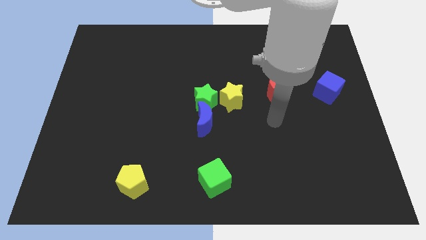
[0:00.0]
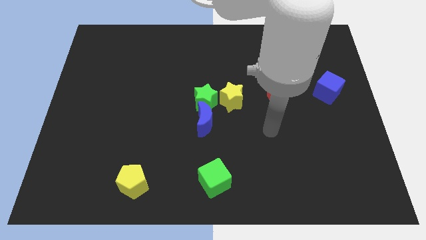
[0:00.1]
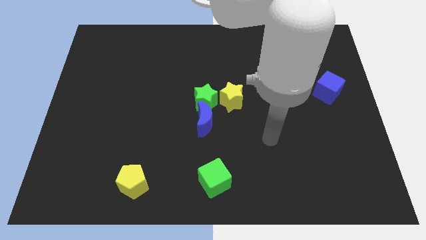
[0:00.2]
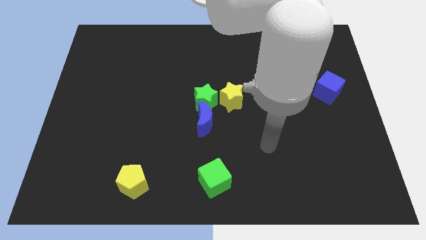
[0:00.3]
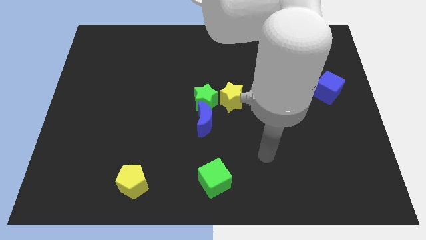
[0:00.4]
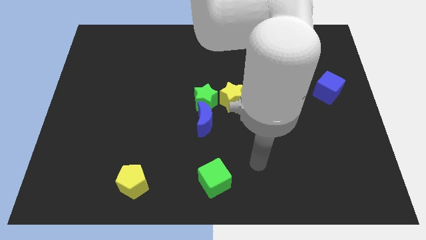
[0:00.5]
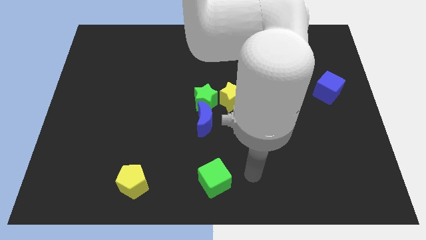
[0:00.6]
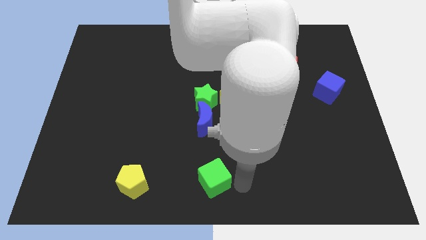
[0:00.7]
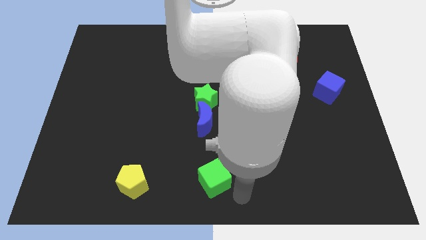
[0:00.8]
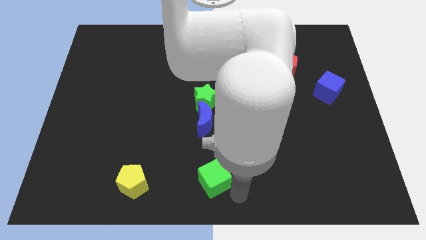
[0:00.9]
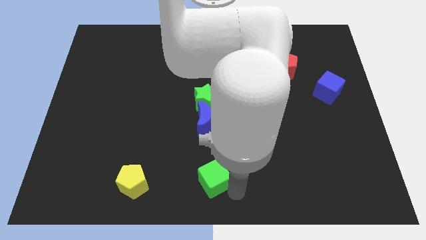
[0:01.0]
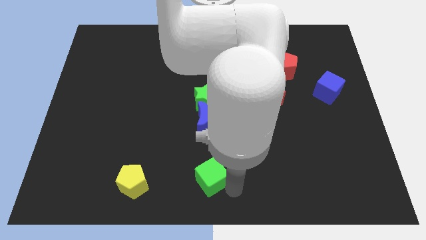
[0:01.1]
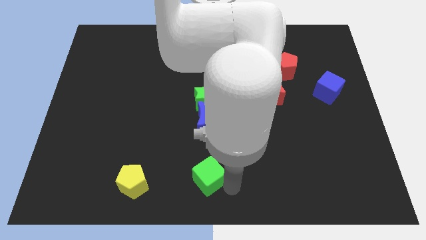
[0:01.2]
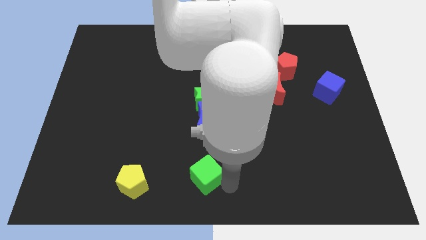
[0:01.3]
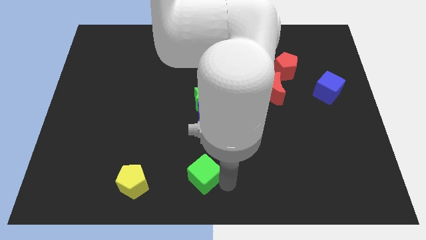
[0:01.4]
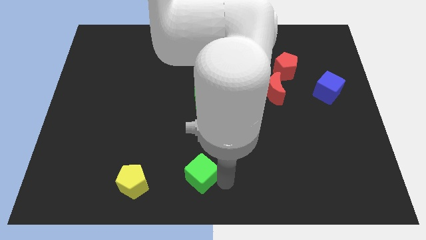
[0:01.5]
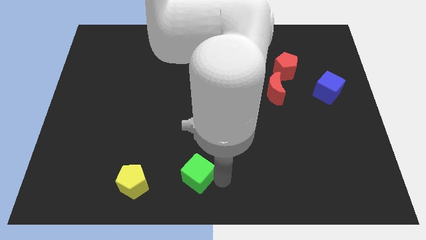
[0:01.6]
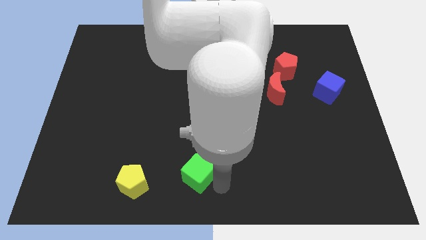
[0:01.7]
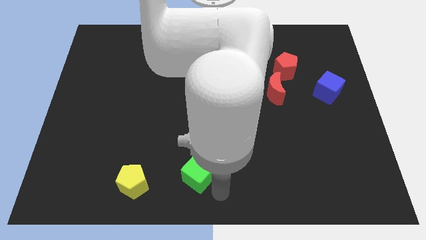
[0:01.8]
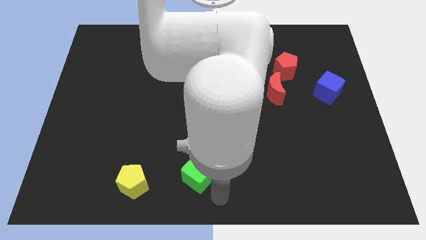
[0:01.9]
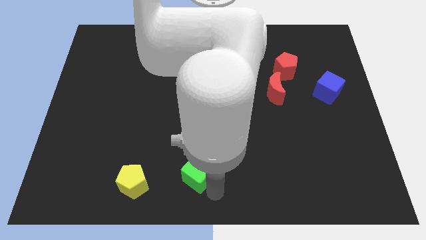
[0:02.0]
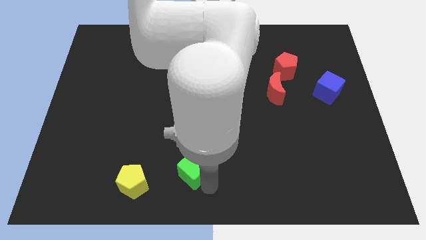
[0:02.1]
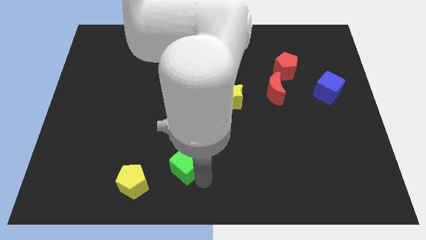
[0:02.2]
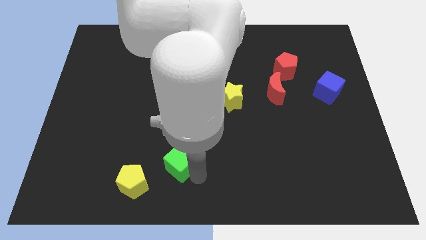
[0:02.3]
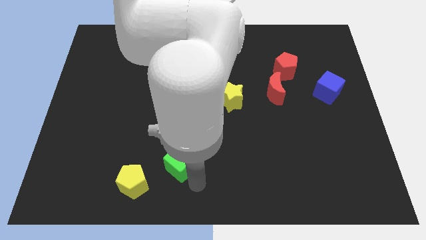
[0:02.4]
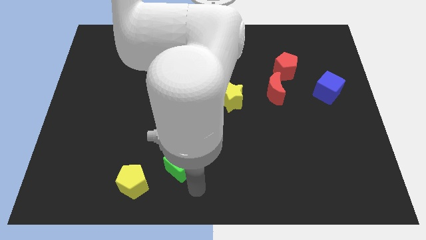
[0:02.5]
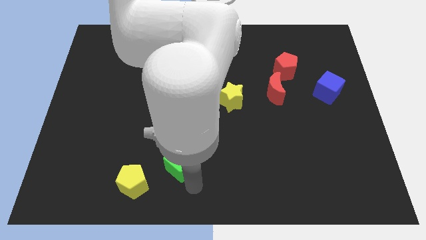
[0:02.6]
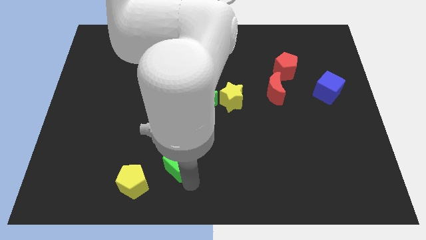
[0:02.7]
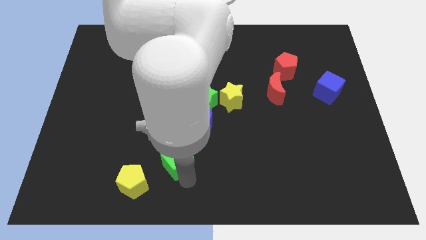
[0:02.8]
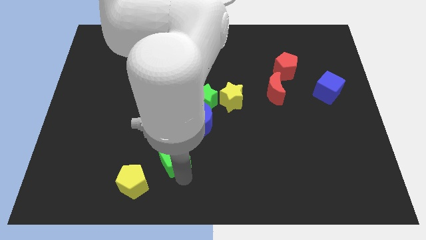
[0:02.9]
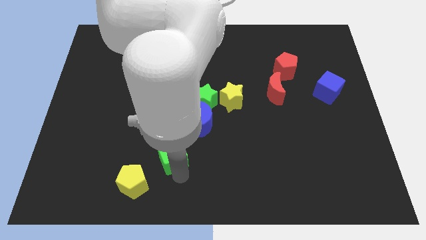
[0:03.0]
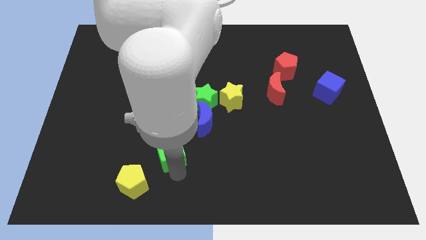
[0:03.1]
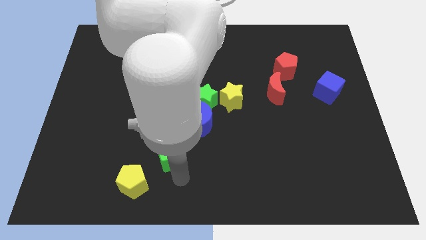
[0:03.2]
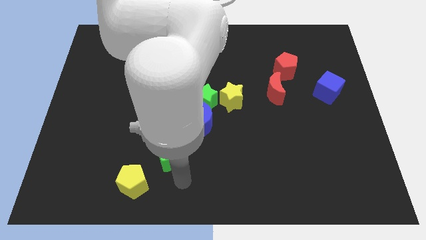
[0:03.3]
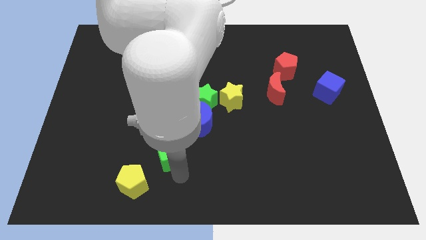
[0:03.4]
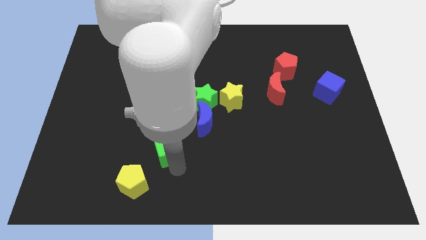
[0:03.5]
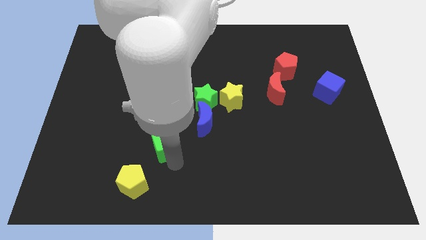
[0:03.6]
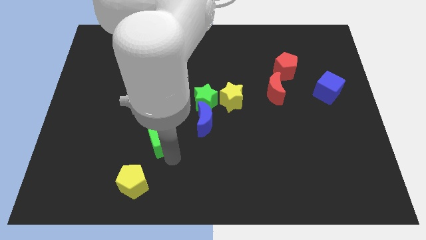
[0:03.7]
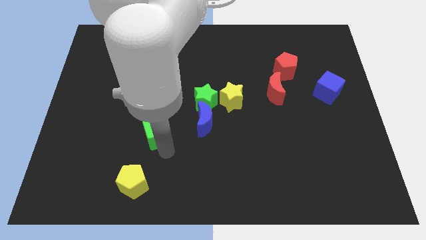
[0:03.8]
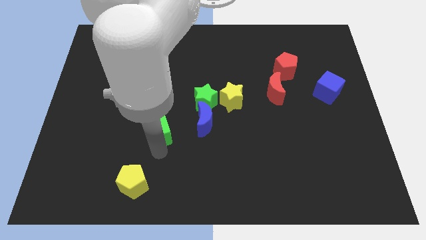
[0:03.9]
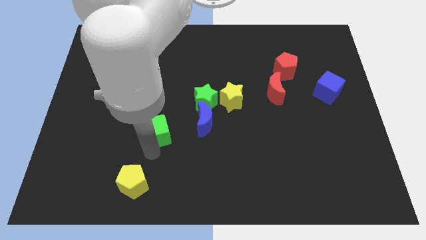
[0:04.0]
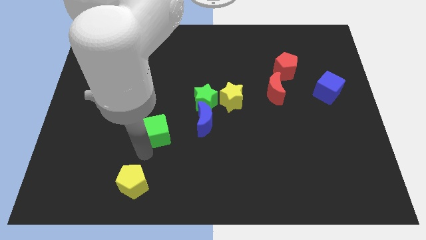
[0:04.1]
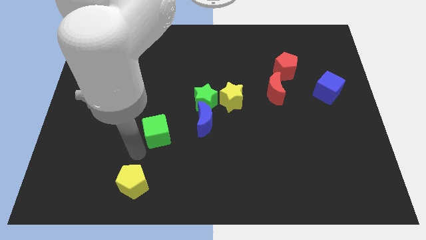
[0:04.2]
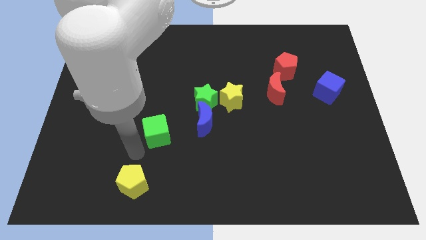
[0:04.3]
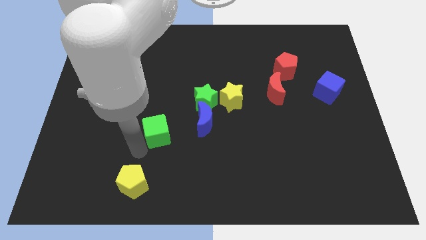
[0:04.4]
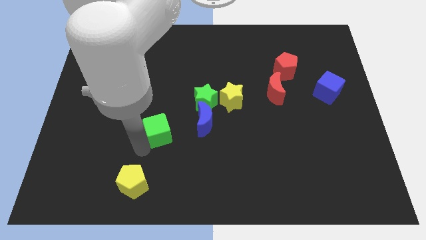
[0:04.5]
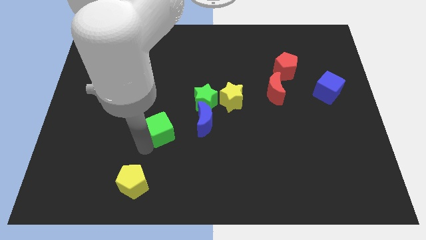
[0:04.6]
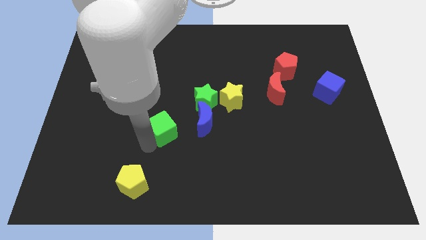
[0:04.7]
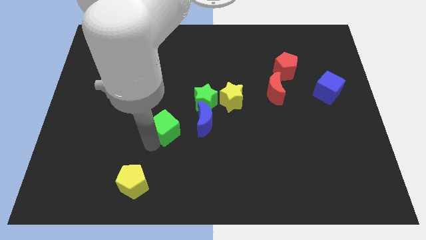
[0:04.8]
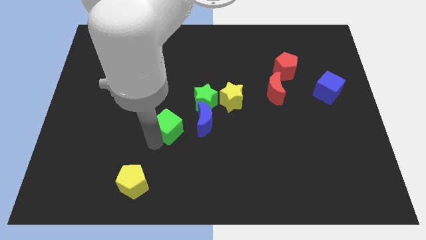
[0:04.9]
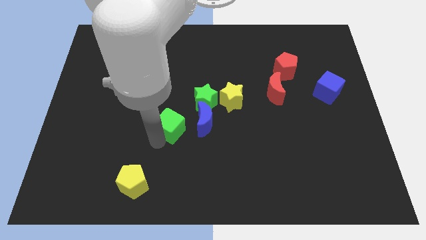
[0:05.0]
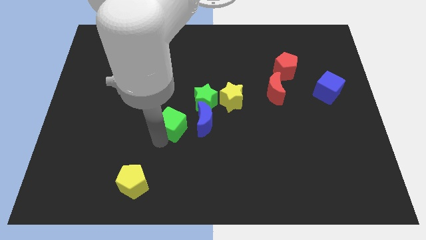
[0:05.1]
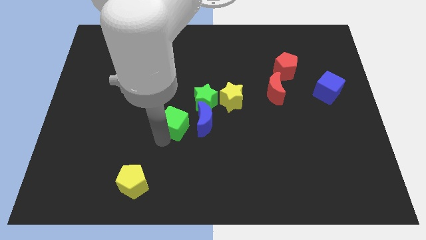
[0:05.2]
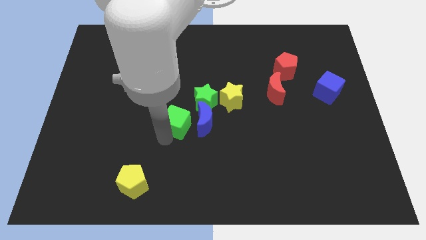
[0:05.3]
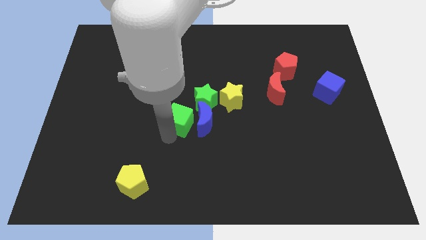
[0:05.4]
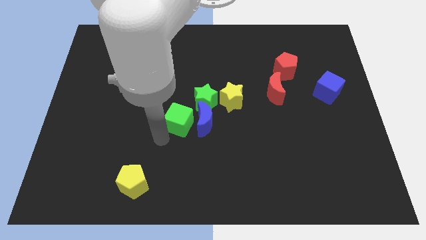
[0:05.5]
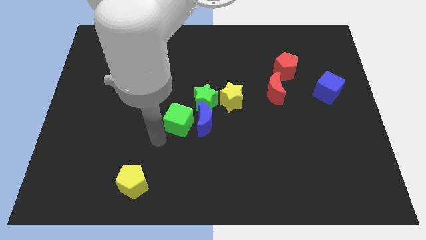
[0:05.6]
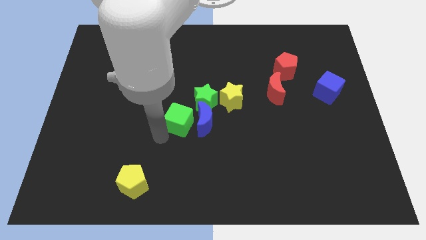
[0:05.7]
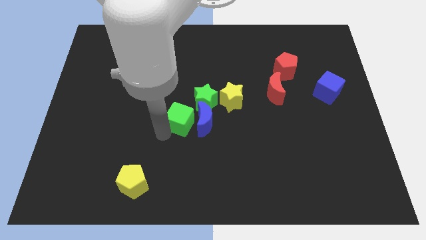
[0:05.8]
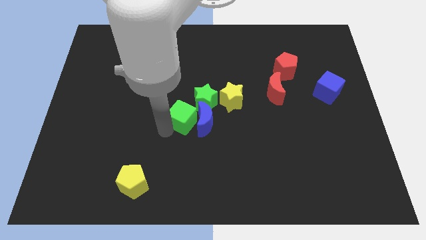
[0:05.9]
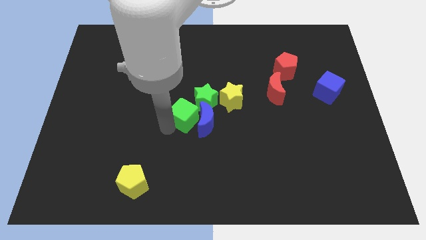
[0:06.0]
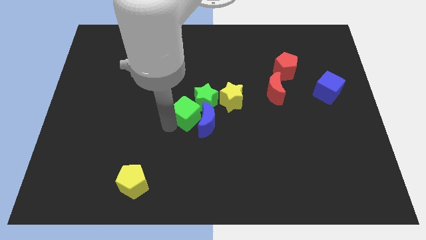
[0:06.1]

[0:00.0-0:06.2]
put the green cube towards the green star
